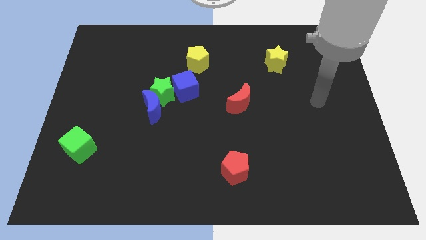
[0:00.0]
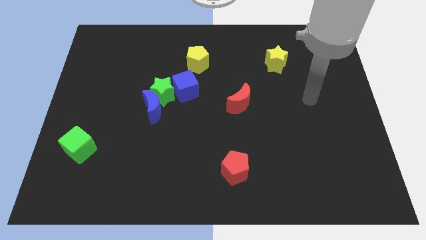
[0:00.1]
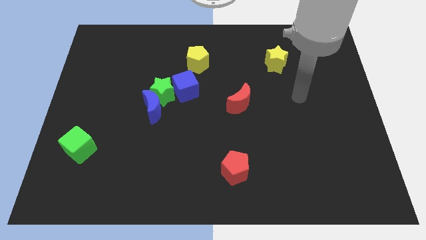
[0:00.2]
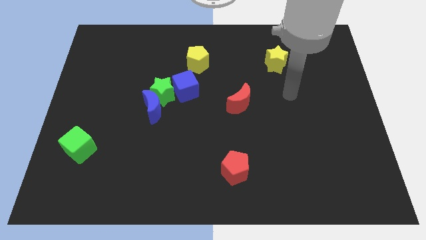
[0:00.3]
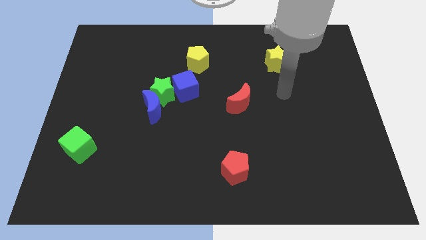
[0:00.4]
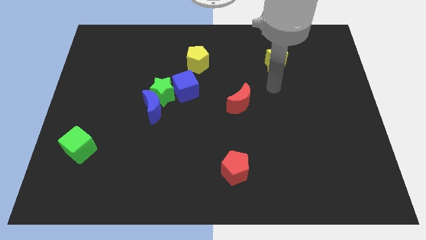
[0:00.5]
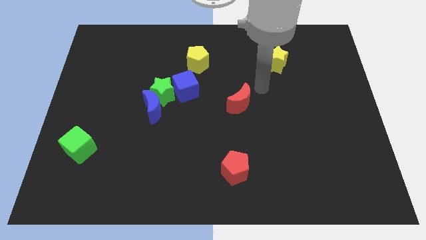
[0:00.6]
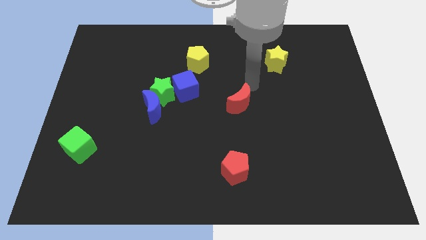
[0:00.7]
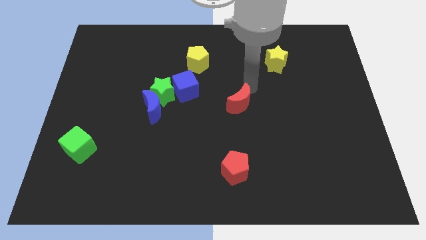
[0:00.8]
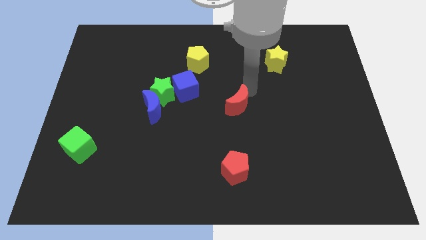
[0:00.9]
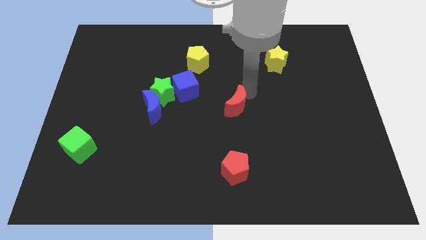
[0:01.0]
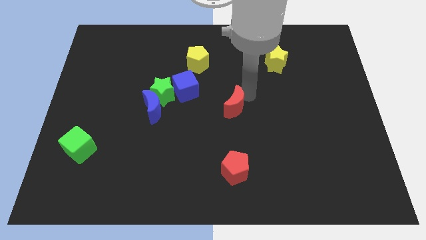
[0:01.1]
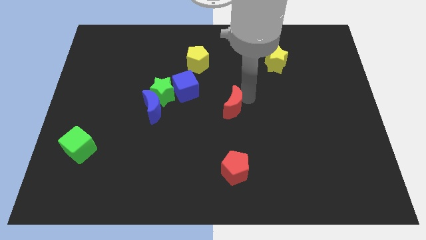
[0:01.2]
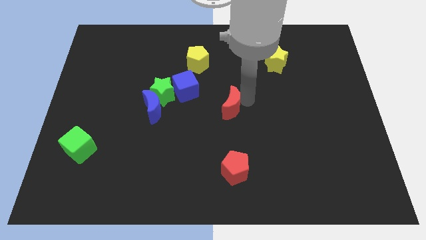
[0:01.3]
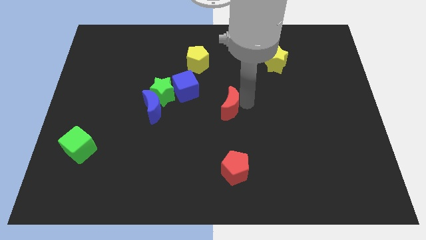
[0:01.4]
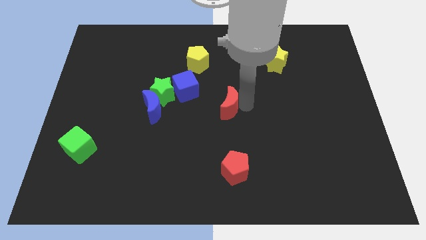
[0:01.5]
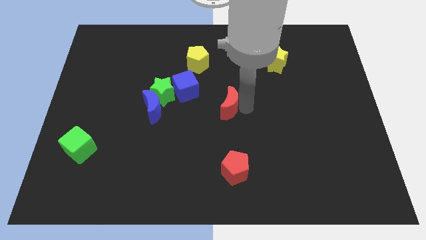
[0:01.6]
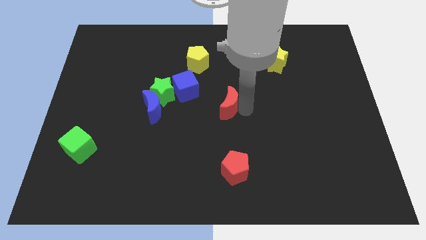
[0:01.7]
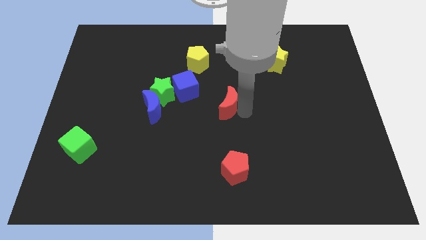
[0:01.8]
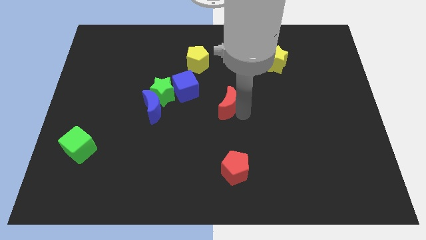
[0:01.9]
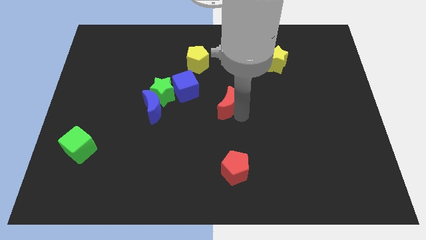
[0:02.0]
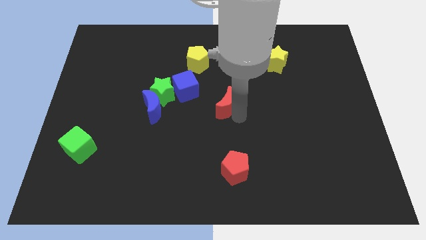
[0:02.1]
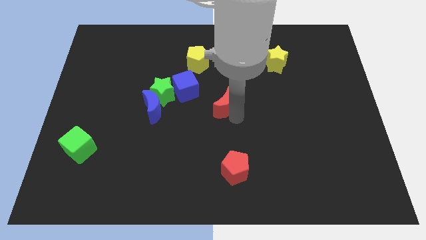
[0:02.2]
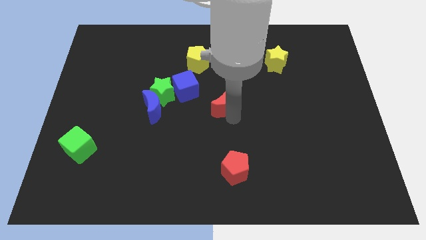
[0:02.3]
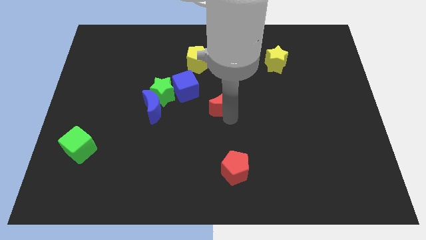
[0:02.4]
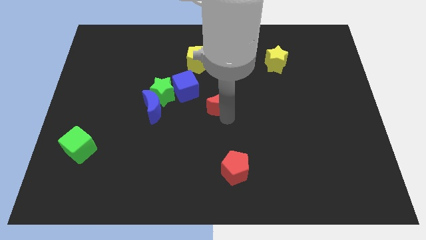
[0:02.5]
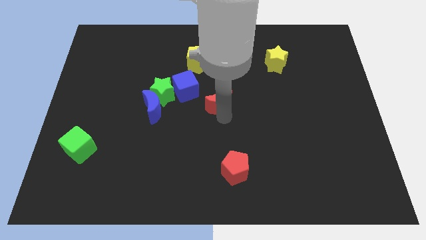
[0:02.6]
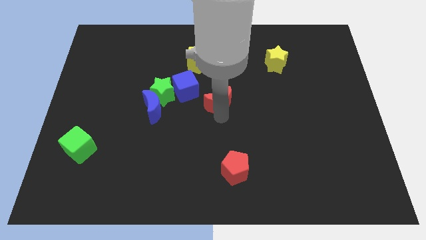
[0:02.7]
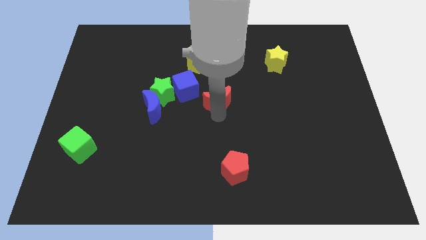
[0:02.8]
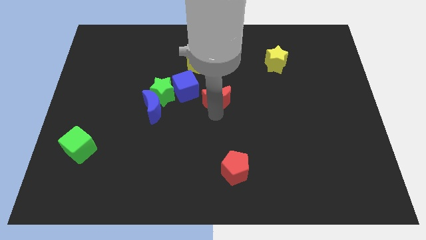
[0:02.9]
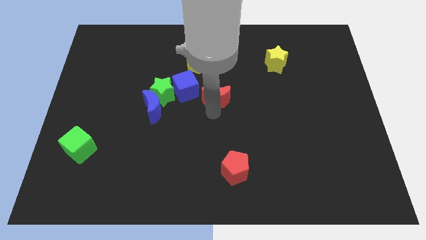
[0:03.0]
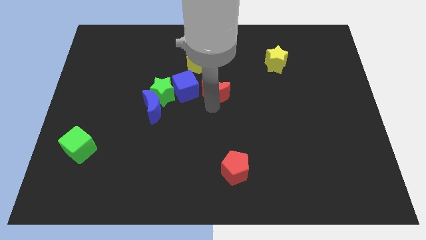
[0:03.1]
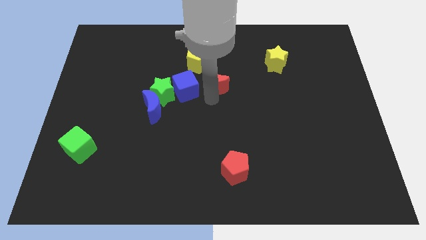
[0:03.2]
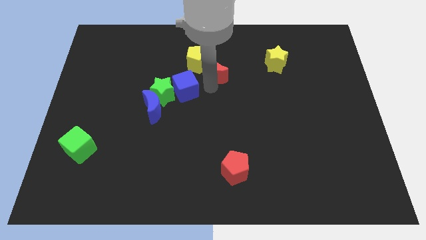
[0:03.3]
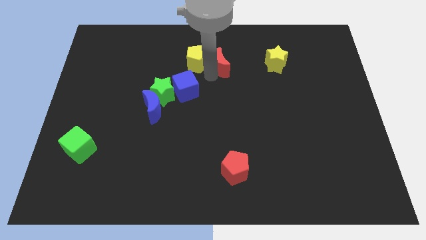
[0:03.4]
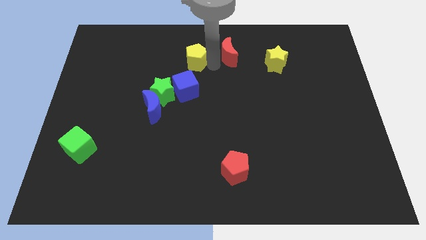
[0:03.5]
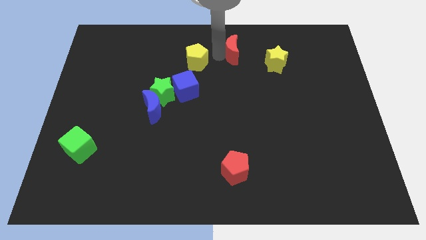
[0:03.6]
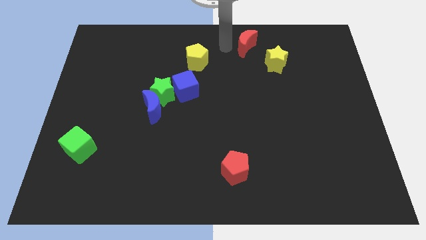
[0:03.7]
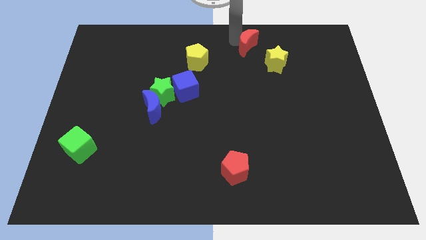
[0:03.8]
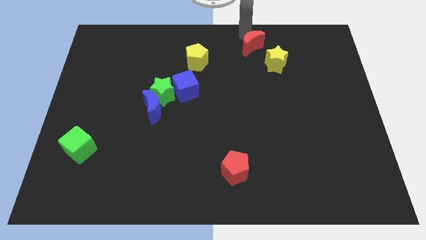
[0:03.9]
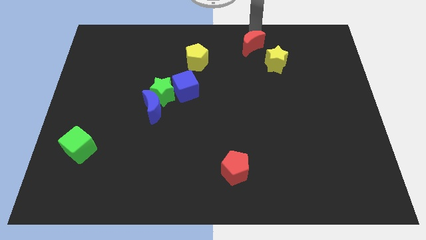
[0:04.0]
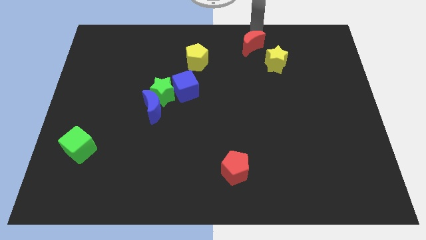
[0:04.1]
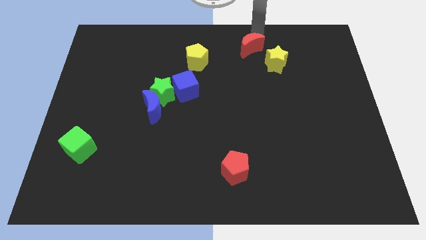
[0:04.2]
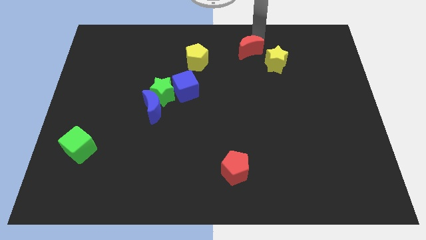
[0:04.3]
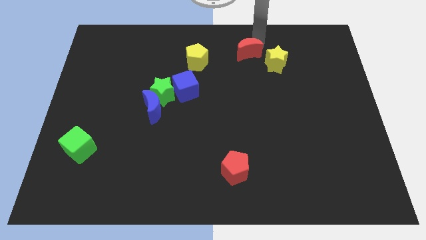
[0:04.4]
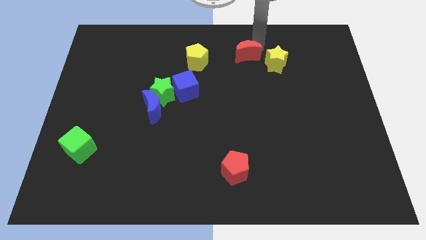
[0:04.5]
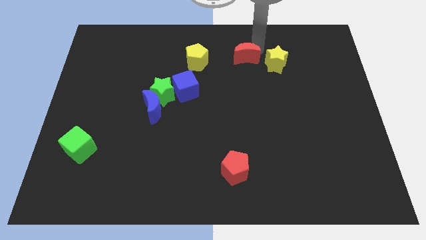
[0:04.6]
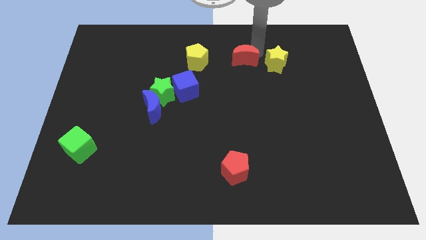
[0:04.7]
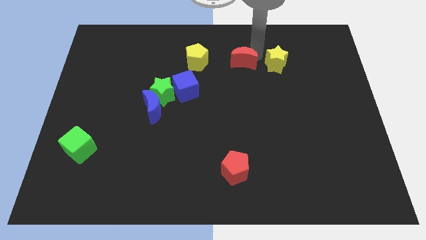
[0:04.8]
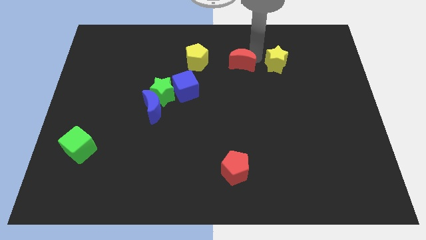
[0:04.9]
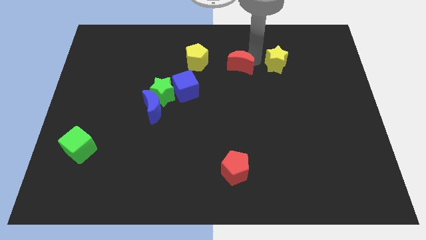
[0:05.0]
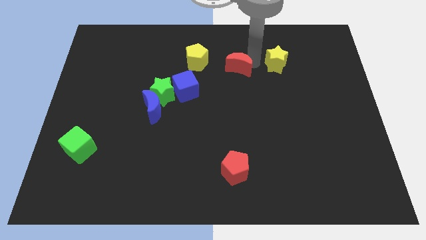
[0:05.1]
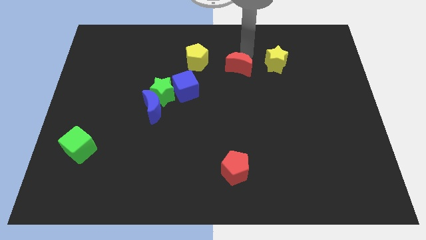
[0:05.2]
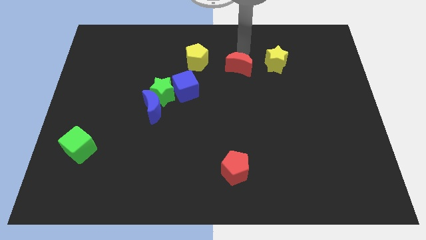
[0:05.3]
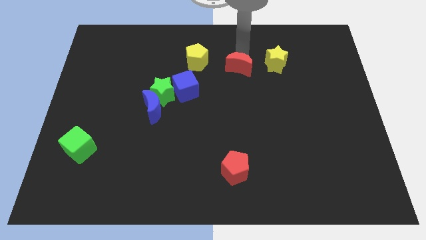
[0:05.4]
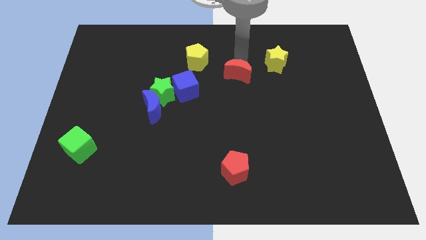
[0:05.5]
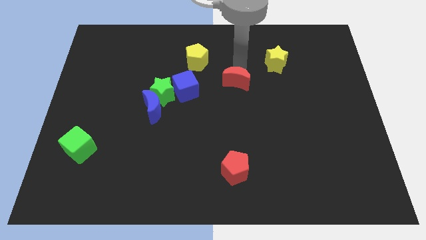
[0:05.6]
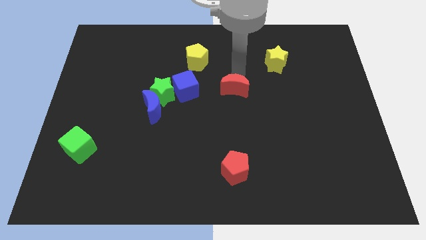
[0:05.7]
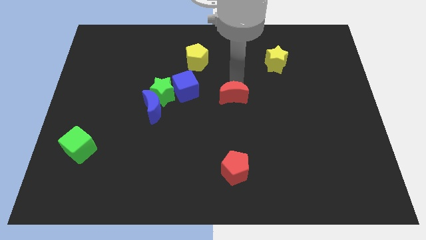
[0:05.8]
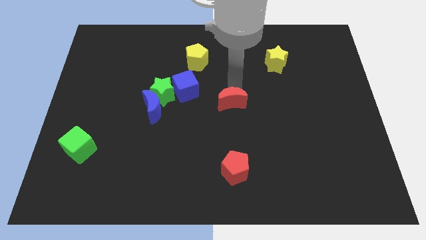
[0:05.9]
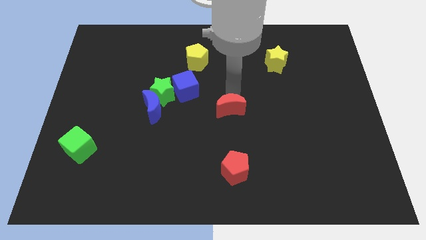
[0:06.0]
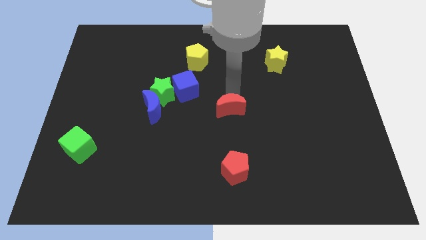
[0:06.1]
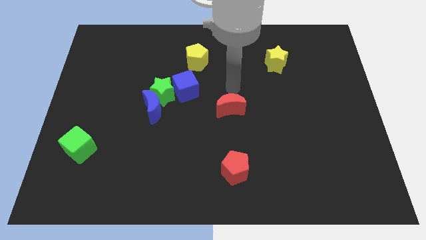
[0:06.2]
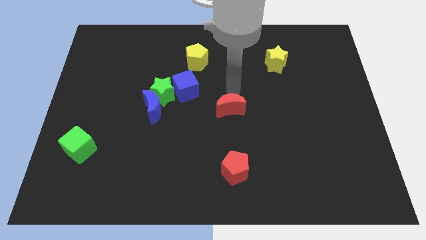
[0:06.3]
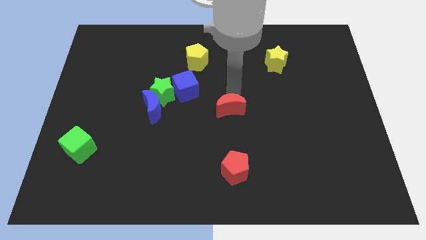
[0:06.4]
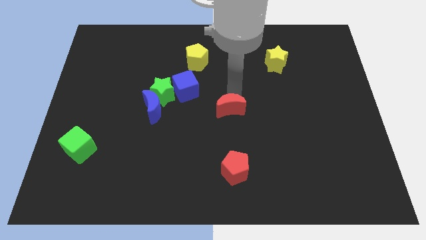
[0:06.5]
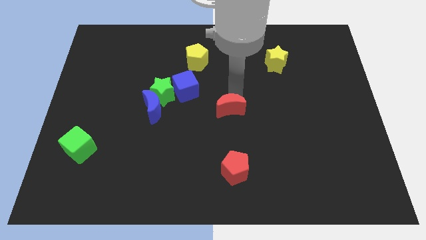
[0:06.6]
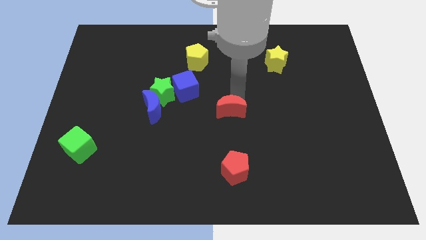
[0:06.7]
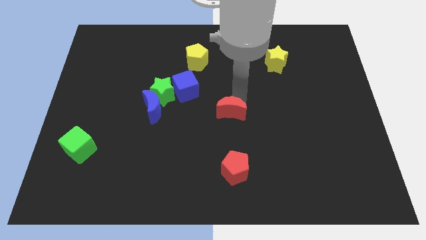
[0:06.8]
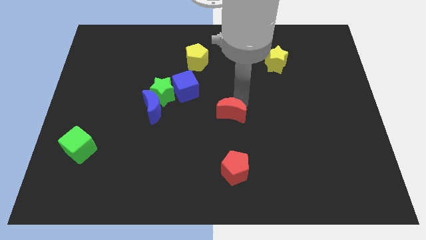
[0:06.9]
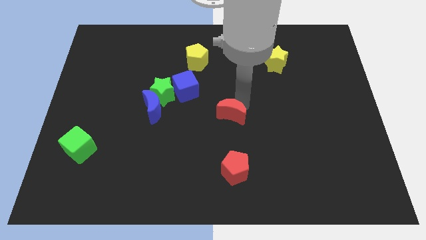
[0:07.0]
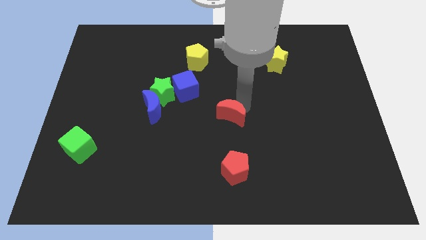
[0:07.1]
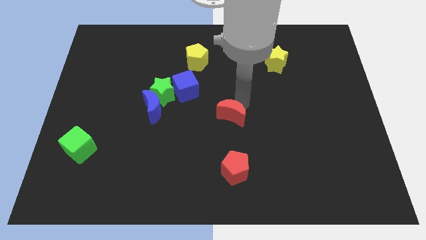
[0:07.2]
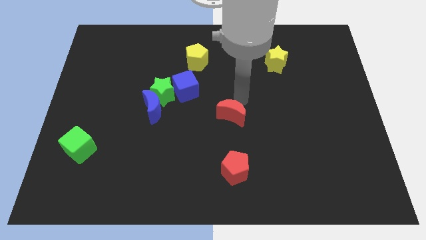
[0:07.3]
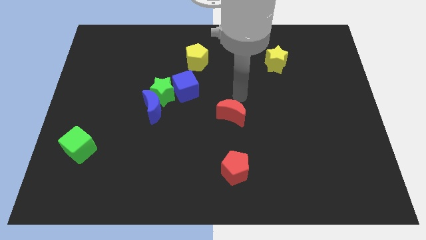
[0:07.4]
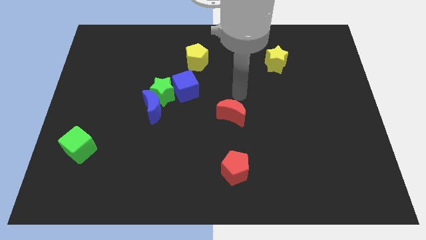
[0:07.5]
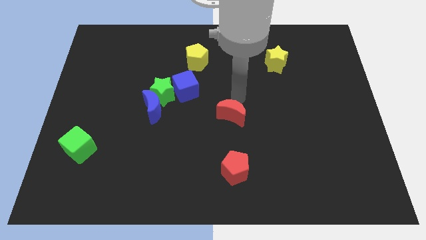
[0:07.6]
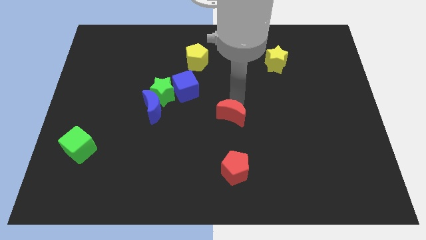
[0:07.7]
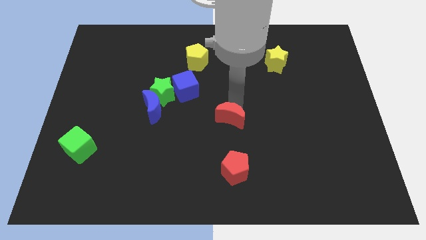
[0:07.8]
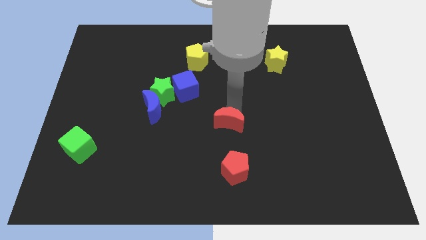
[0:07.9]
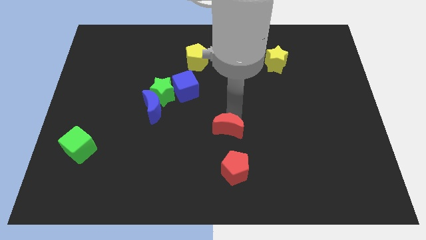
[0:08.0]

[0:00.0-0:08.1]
move the red moon downwards and then left somewhat
